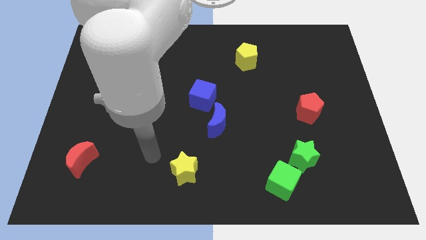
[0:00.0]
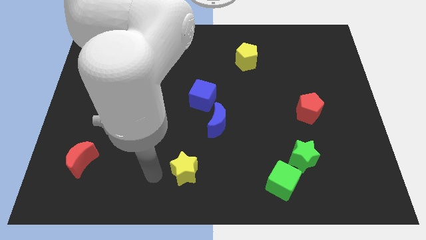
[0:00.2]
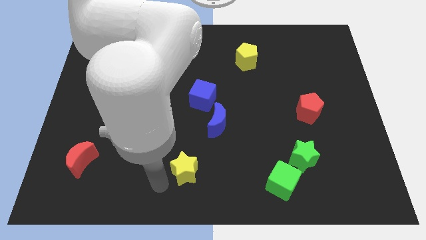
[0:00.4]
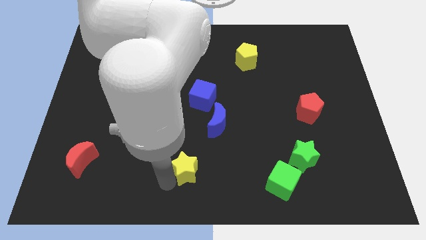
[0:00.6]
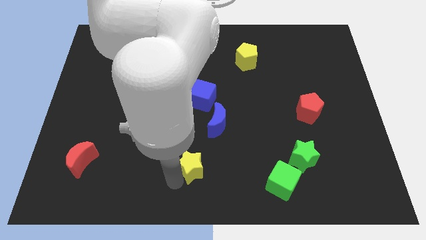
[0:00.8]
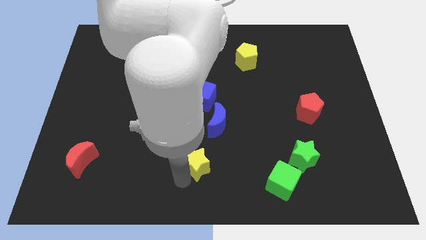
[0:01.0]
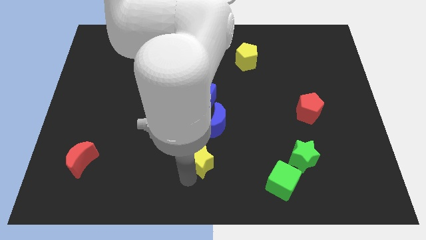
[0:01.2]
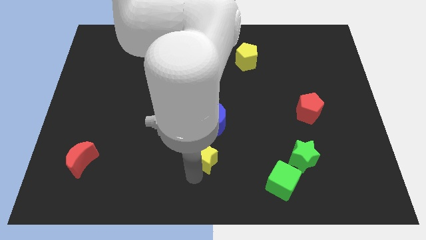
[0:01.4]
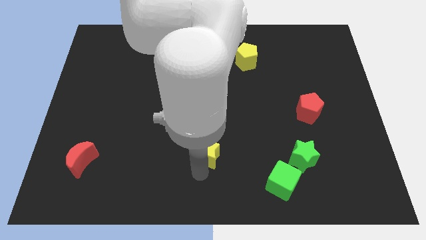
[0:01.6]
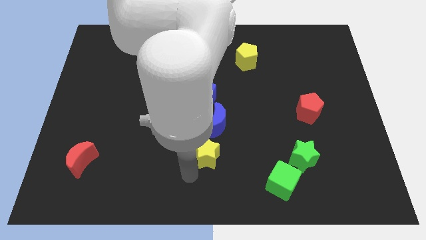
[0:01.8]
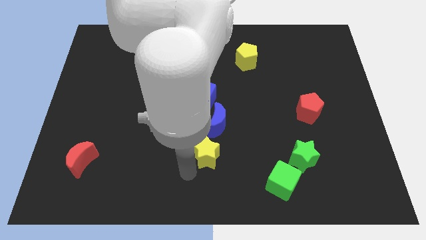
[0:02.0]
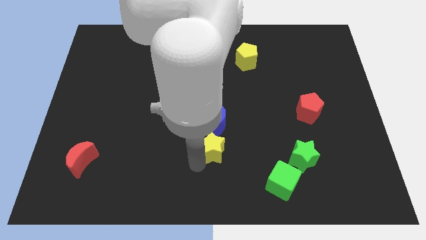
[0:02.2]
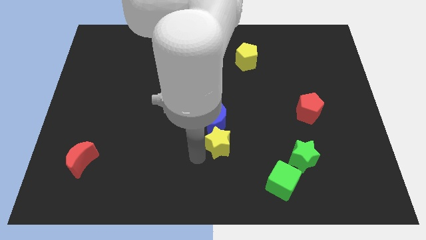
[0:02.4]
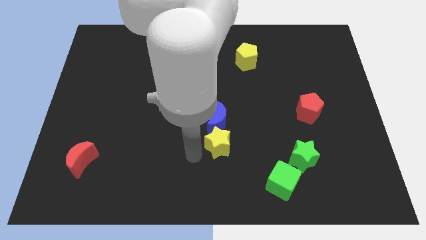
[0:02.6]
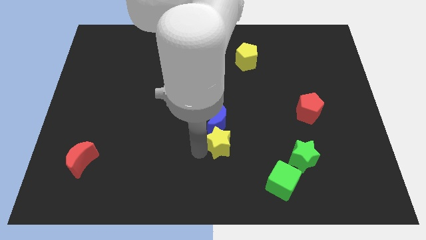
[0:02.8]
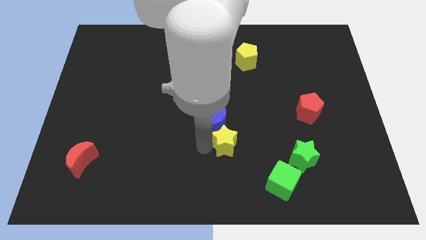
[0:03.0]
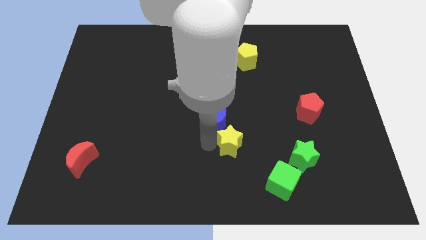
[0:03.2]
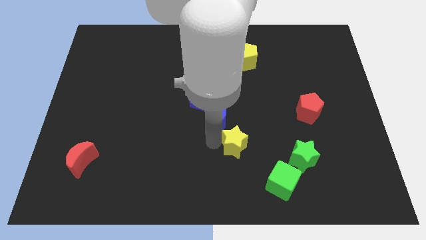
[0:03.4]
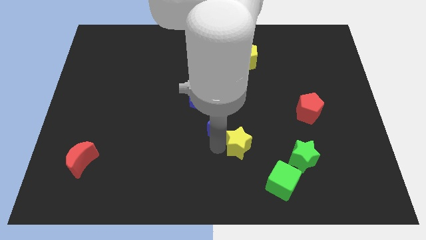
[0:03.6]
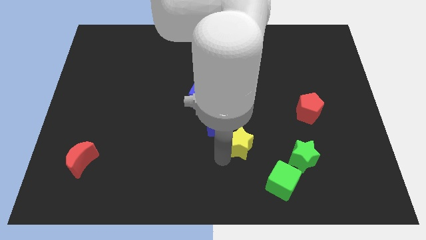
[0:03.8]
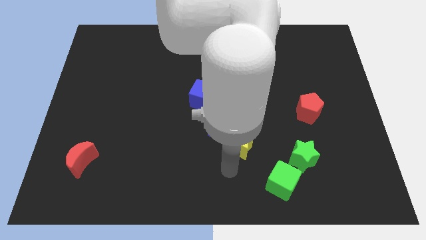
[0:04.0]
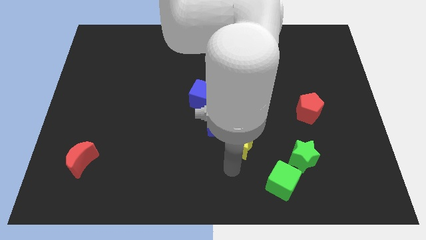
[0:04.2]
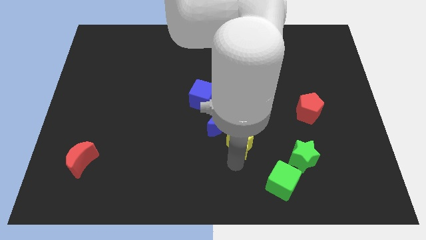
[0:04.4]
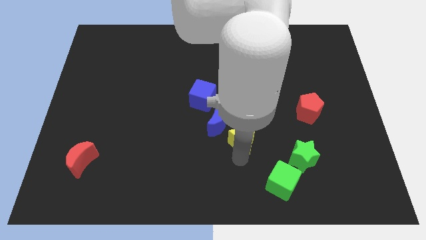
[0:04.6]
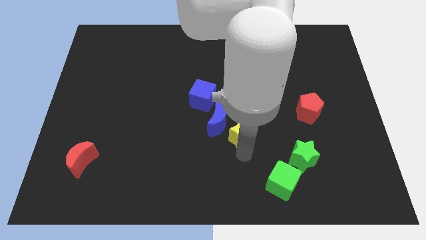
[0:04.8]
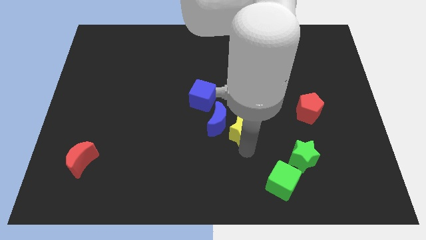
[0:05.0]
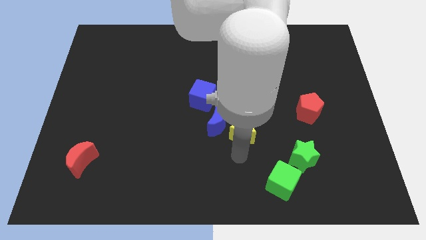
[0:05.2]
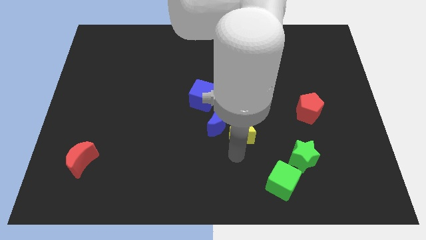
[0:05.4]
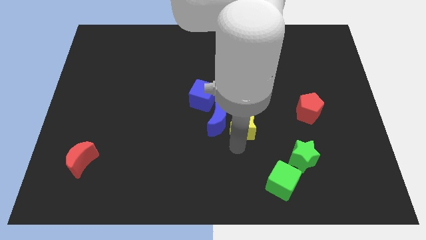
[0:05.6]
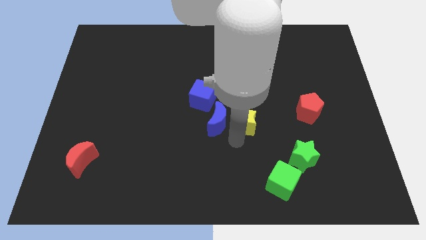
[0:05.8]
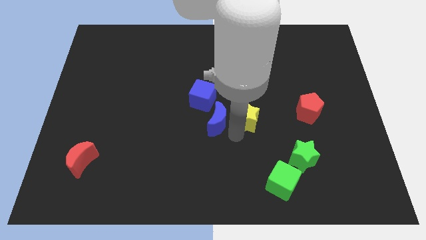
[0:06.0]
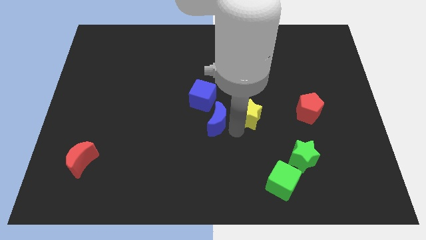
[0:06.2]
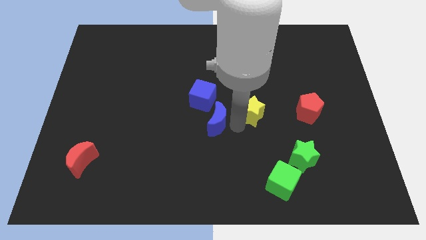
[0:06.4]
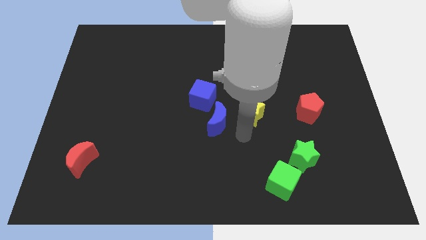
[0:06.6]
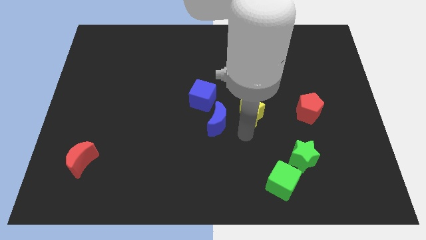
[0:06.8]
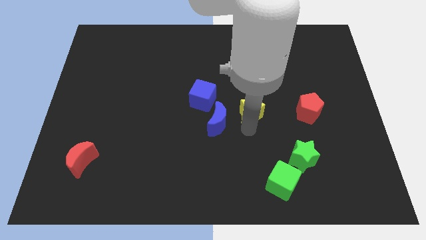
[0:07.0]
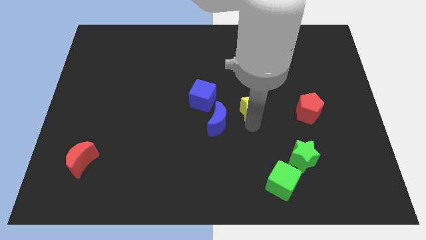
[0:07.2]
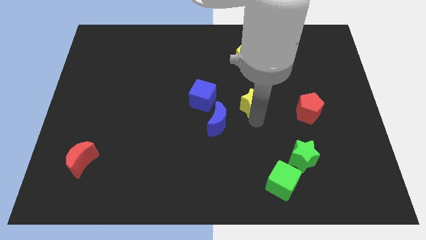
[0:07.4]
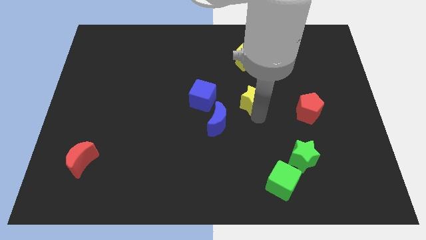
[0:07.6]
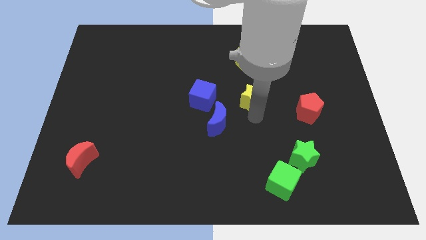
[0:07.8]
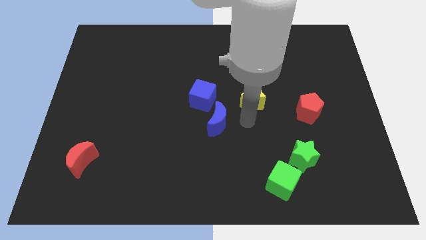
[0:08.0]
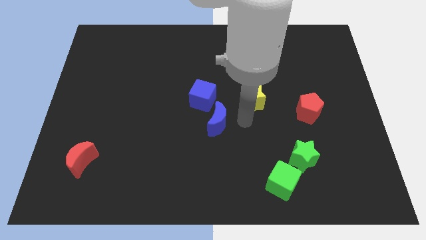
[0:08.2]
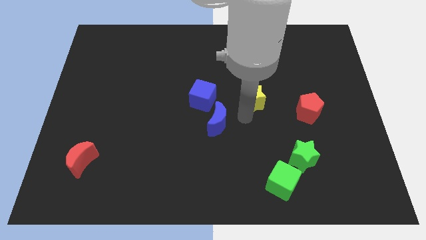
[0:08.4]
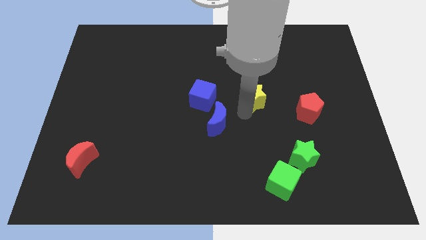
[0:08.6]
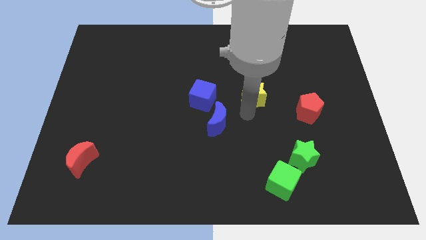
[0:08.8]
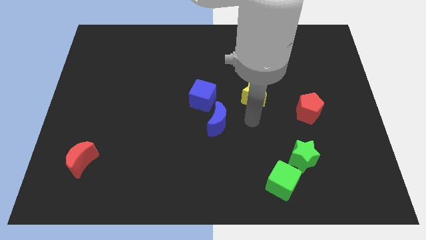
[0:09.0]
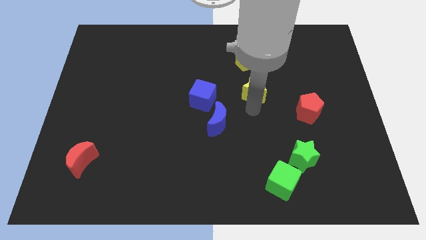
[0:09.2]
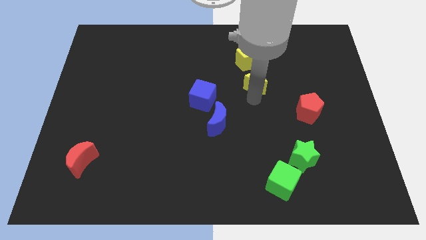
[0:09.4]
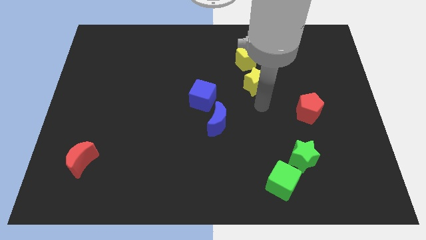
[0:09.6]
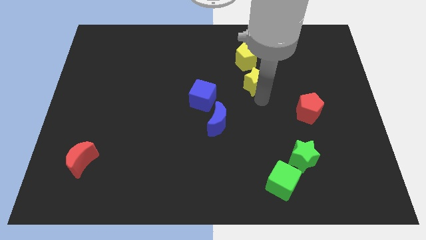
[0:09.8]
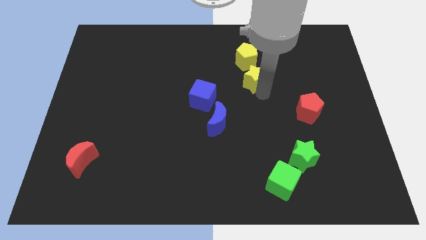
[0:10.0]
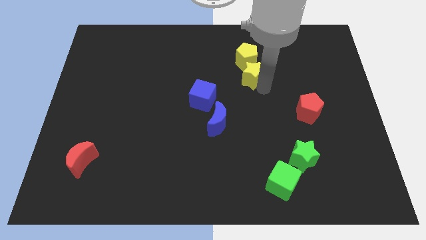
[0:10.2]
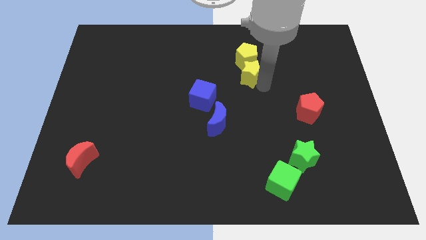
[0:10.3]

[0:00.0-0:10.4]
move the yellow star towards the yellow pentagon

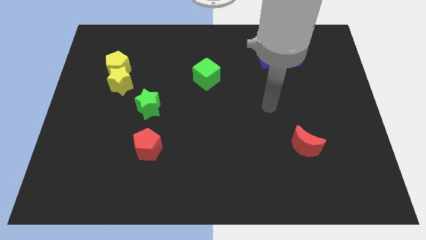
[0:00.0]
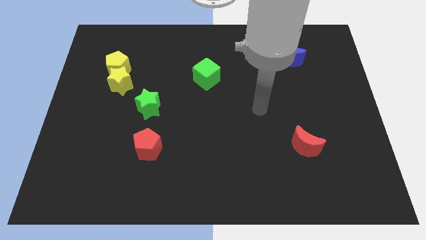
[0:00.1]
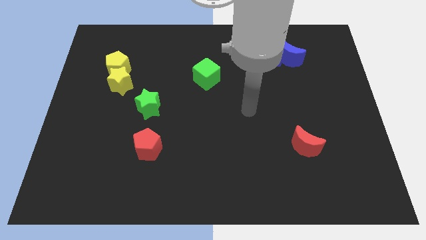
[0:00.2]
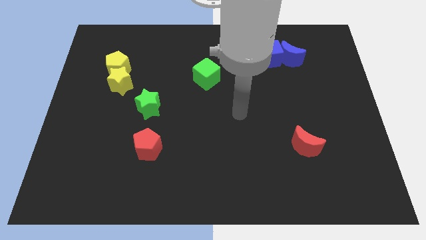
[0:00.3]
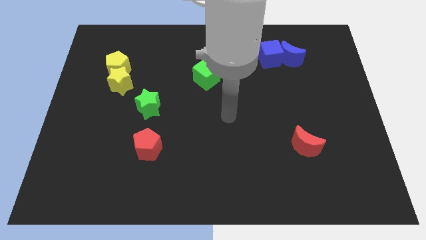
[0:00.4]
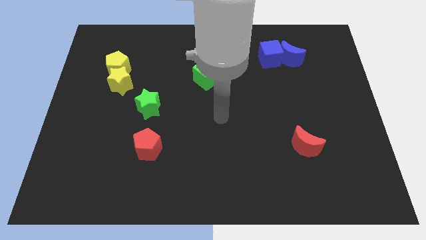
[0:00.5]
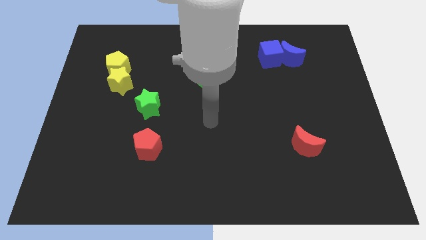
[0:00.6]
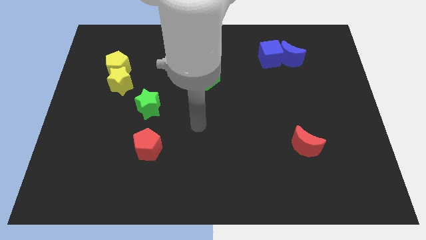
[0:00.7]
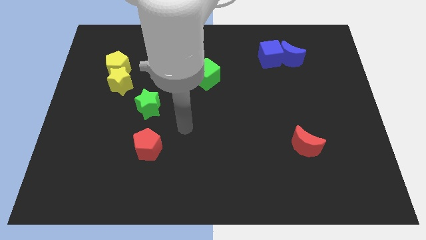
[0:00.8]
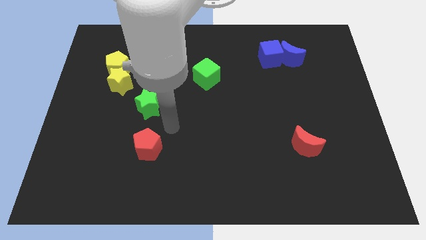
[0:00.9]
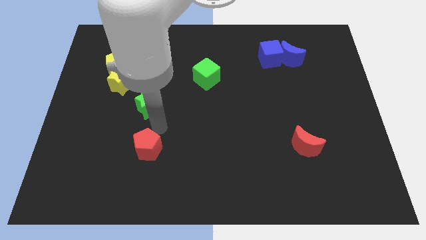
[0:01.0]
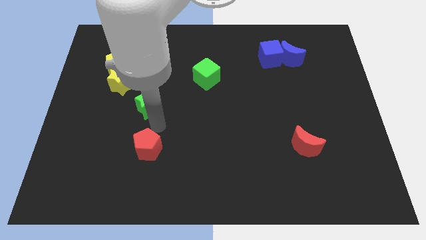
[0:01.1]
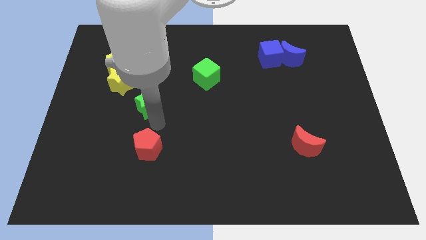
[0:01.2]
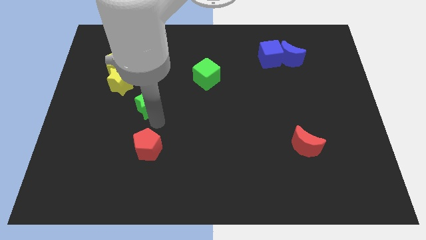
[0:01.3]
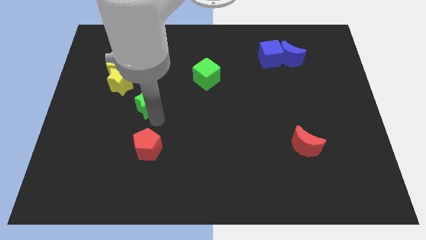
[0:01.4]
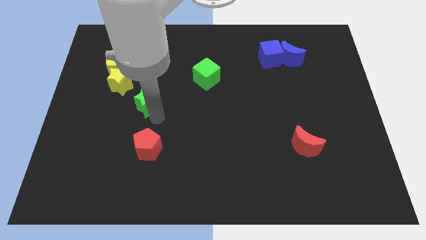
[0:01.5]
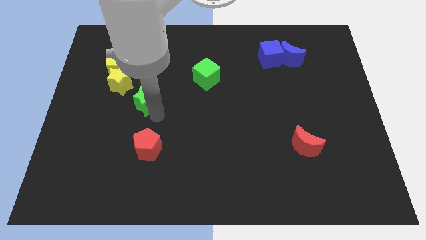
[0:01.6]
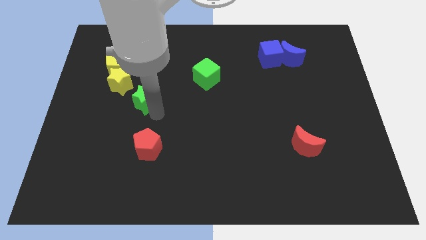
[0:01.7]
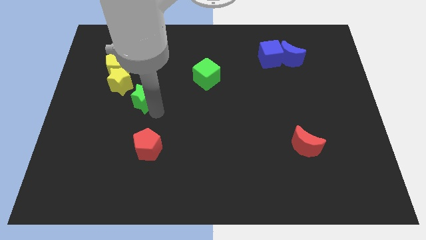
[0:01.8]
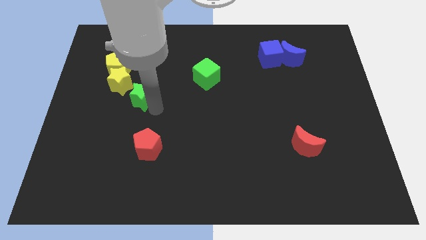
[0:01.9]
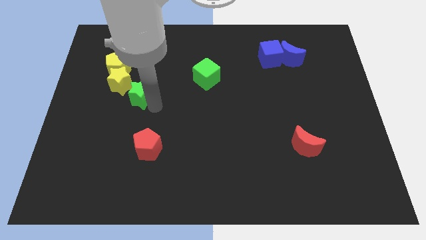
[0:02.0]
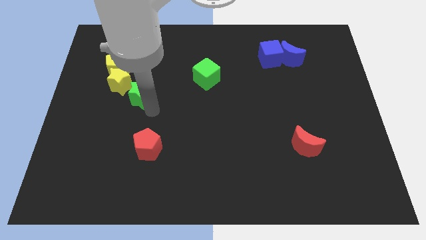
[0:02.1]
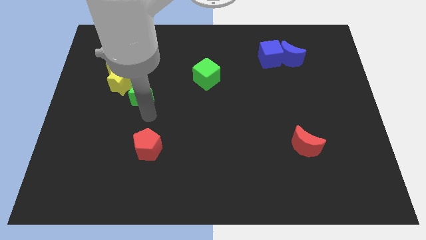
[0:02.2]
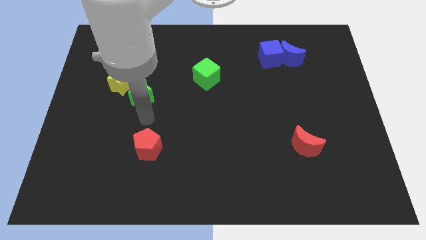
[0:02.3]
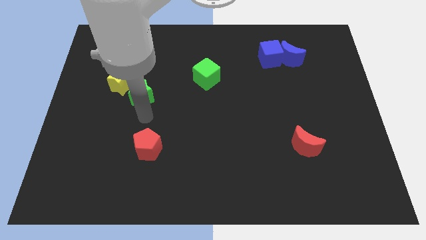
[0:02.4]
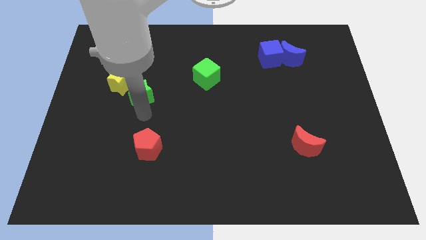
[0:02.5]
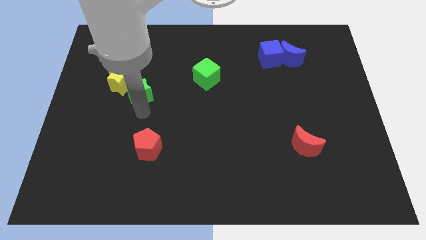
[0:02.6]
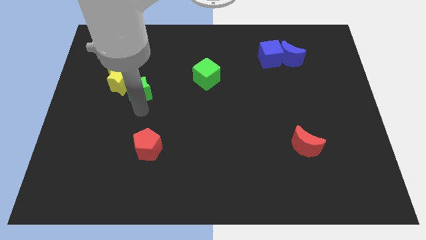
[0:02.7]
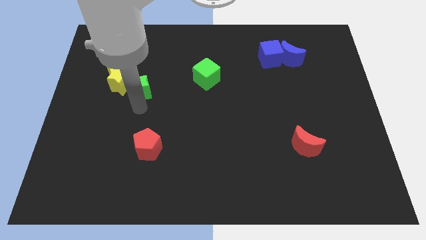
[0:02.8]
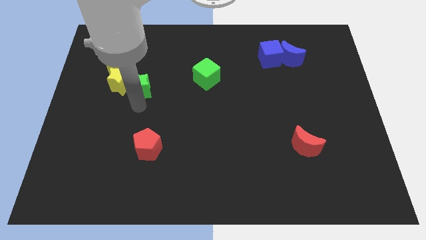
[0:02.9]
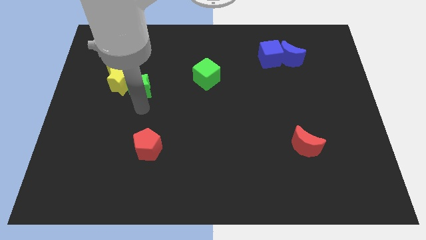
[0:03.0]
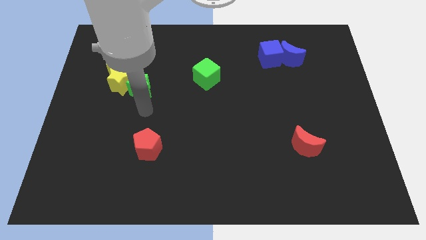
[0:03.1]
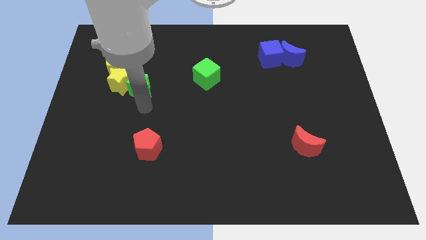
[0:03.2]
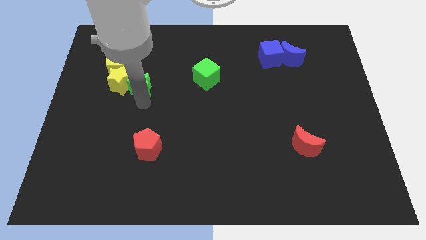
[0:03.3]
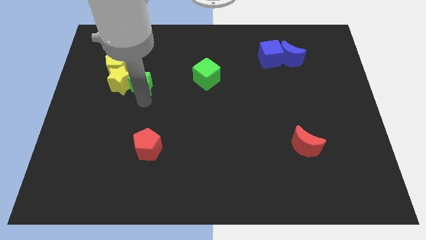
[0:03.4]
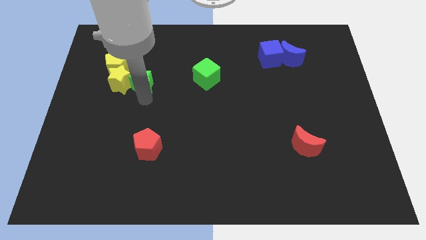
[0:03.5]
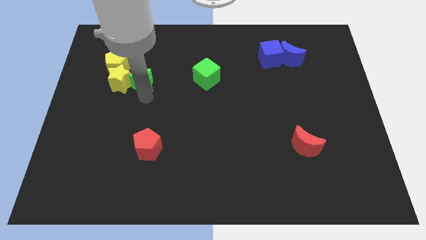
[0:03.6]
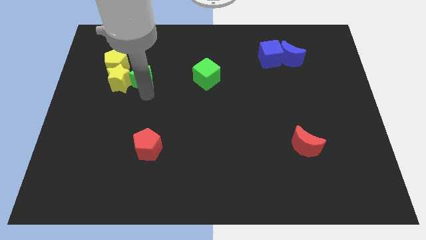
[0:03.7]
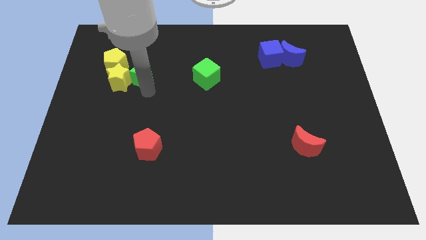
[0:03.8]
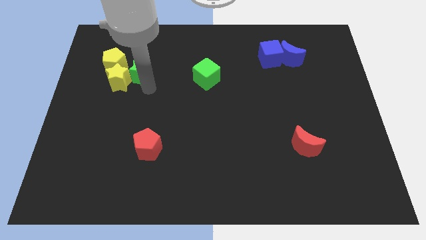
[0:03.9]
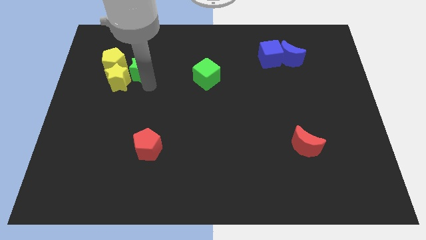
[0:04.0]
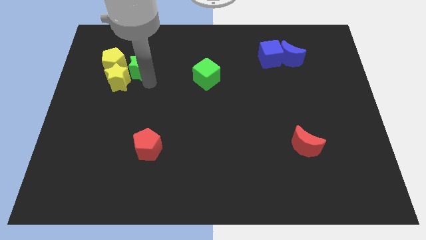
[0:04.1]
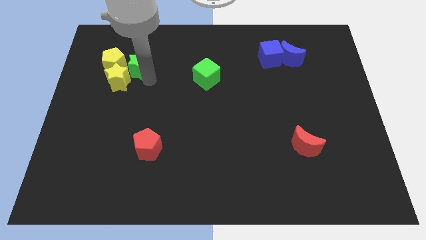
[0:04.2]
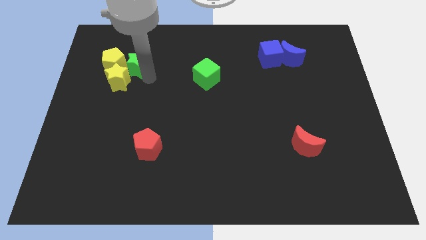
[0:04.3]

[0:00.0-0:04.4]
put the green star to the yellow pentagon
